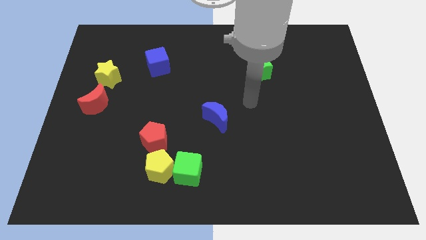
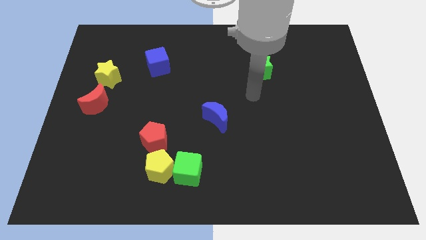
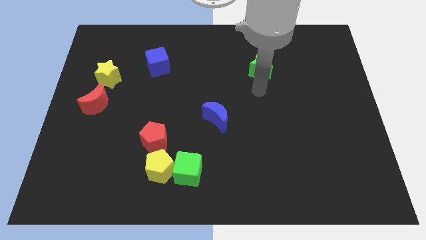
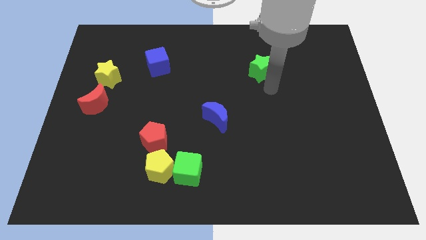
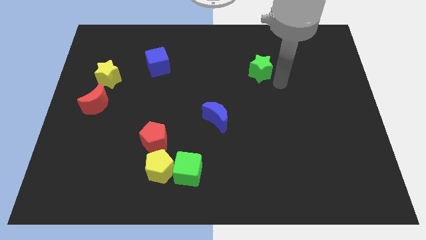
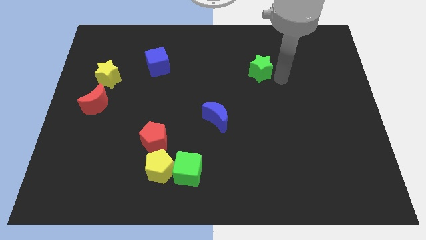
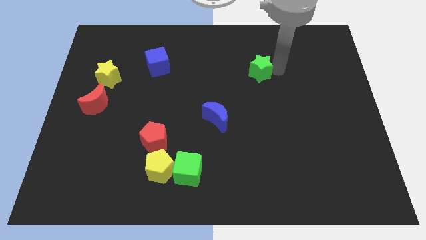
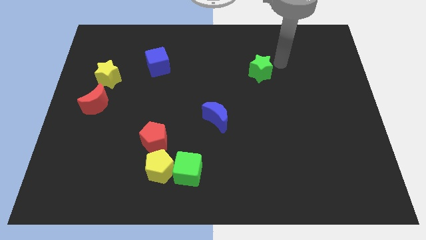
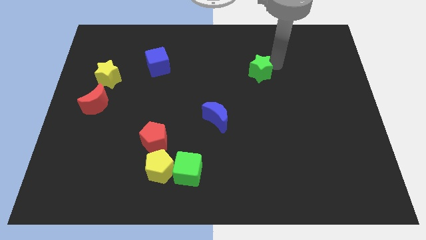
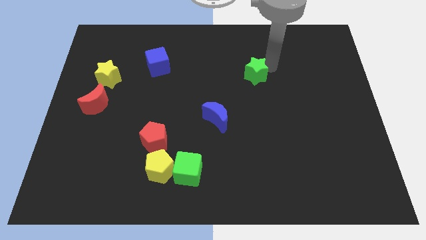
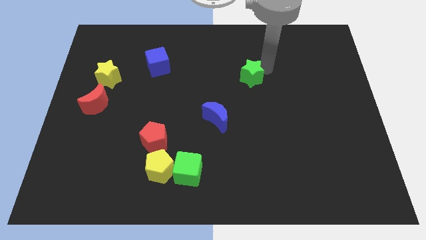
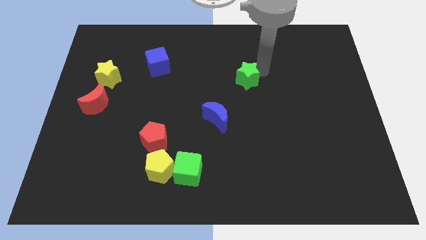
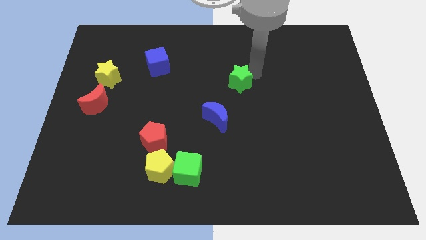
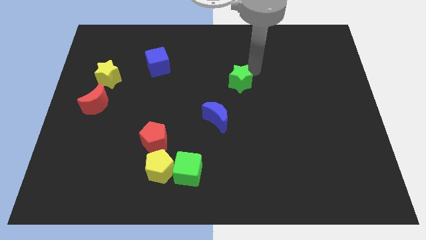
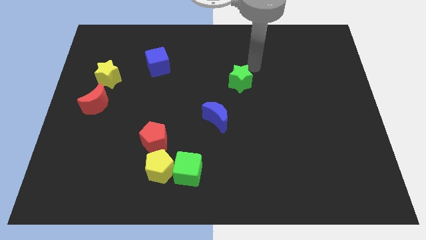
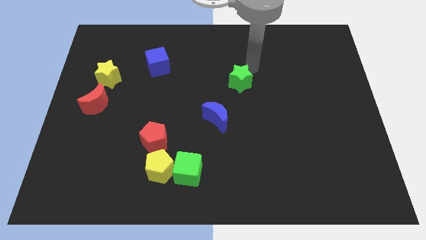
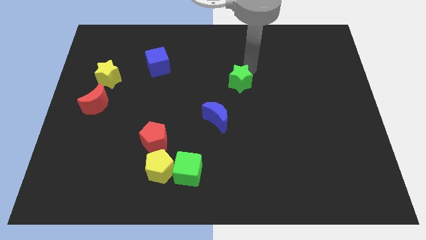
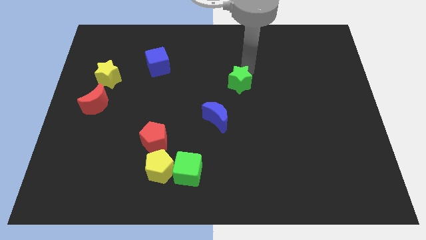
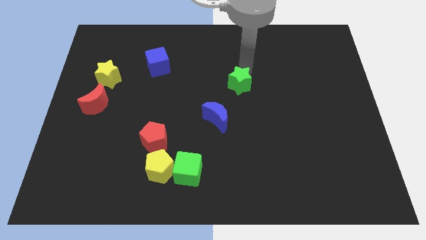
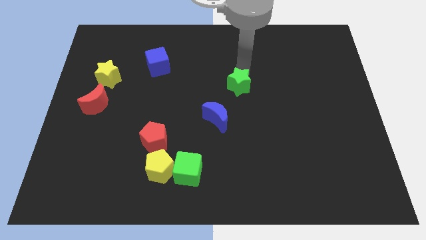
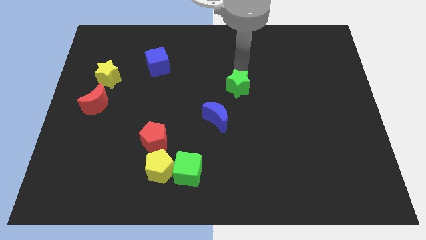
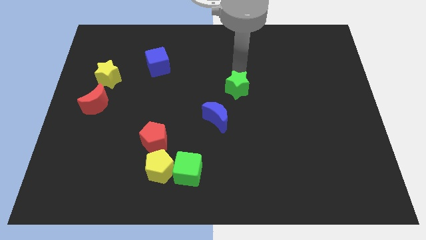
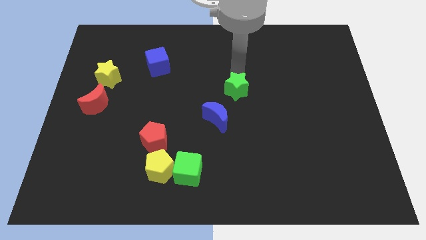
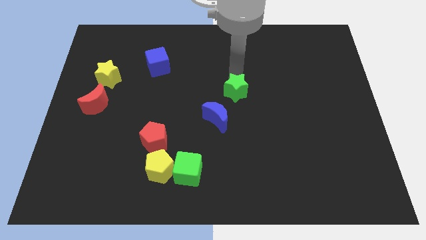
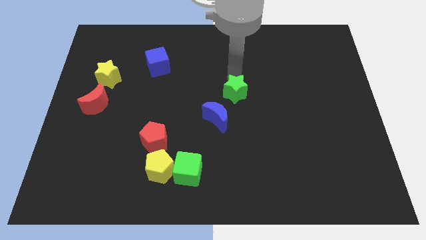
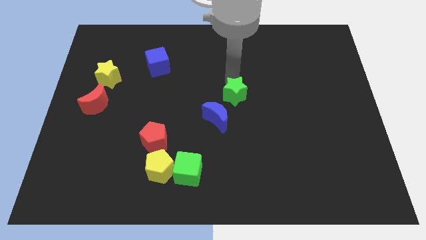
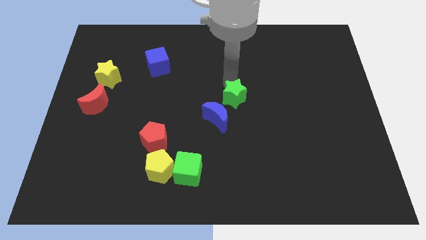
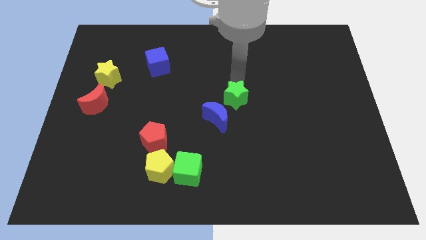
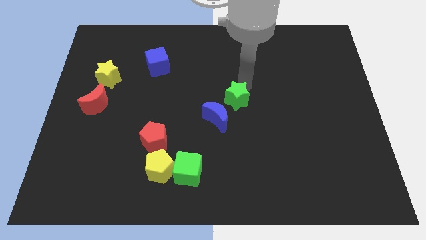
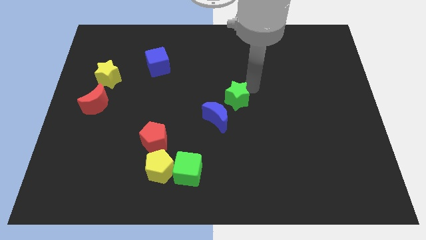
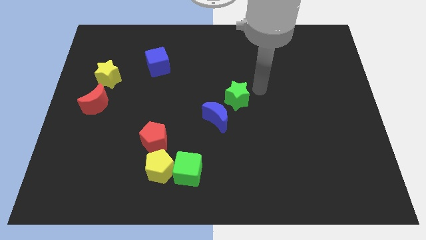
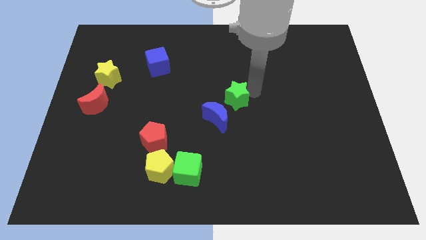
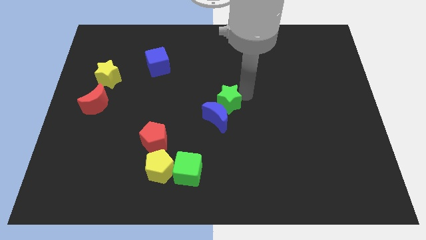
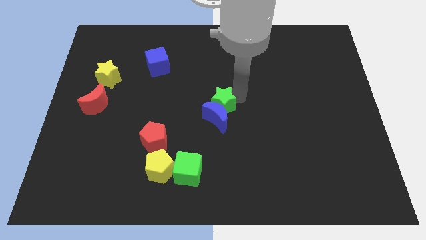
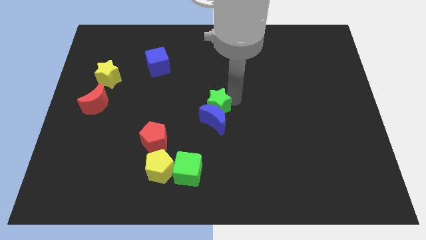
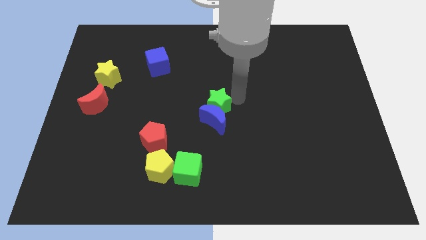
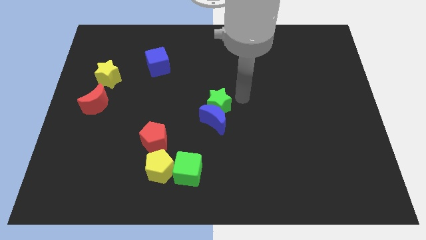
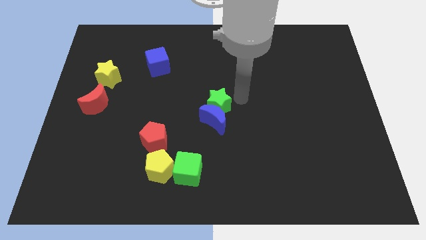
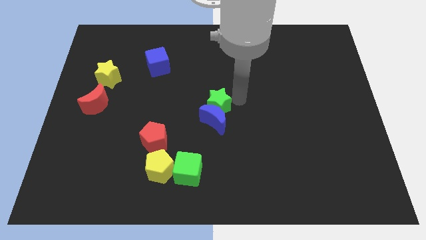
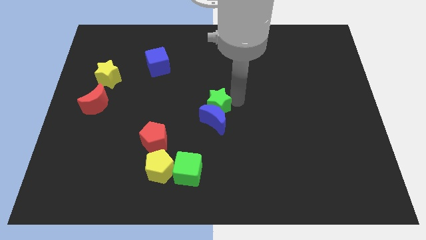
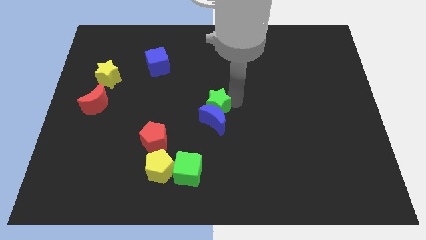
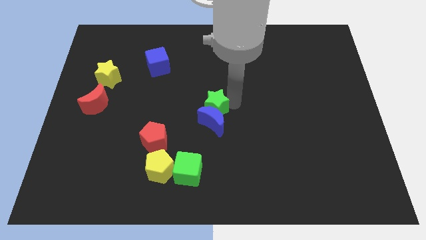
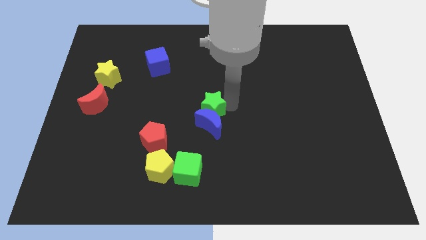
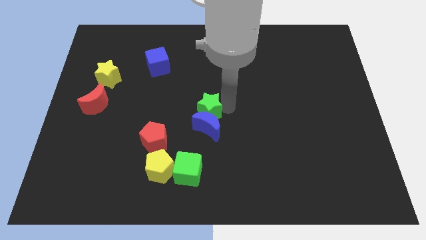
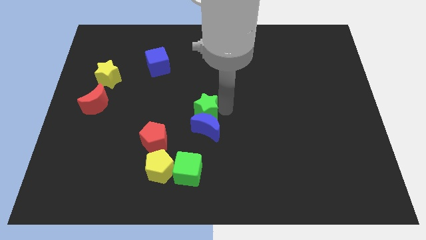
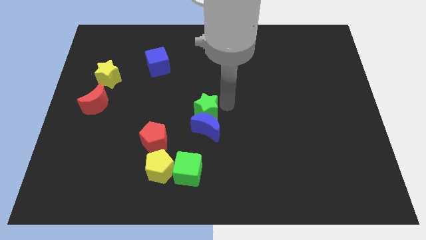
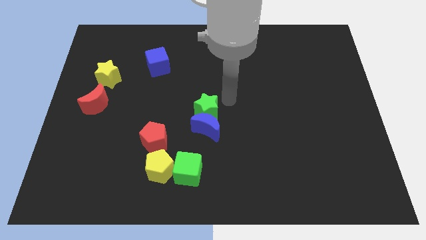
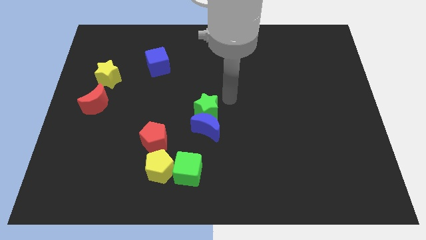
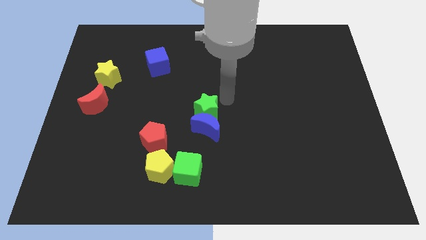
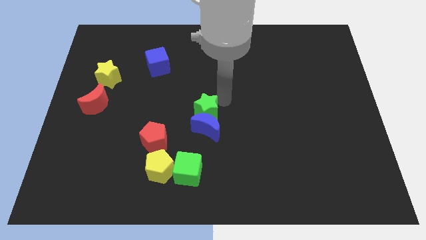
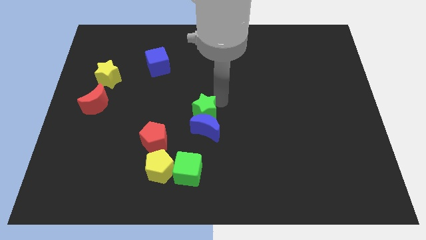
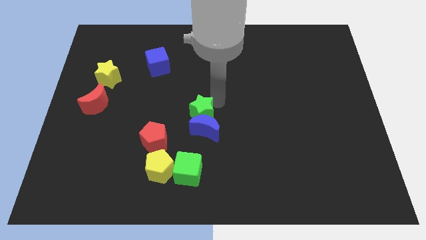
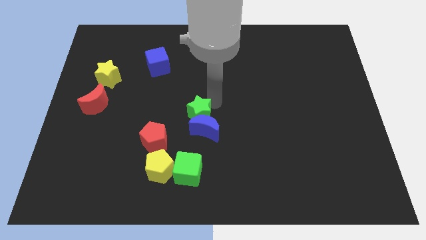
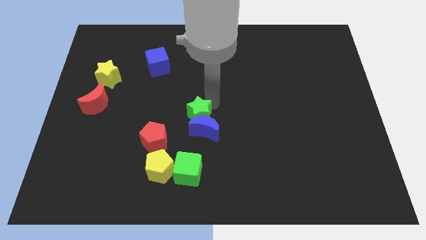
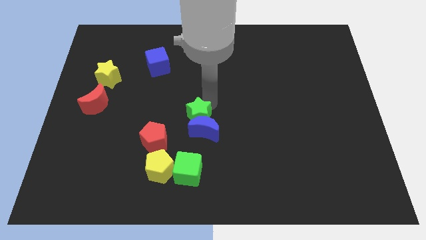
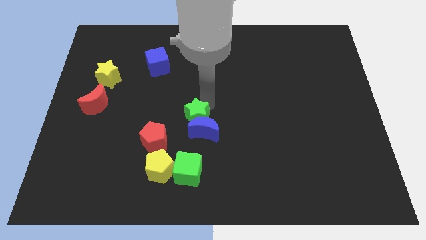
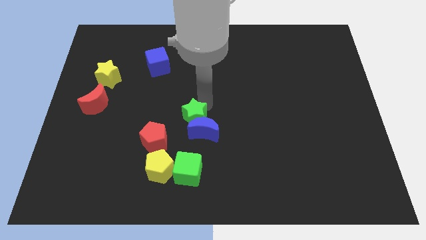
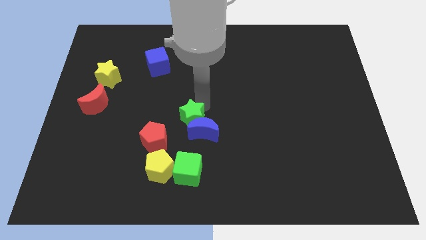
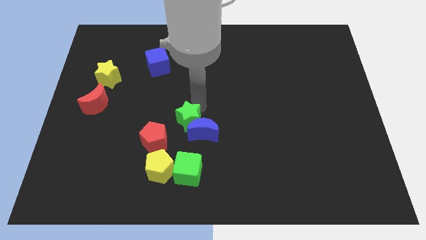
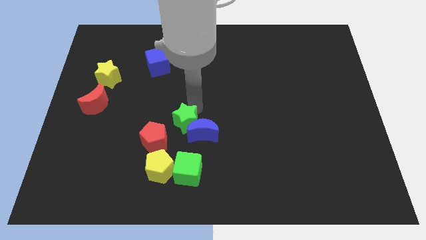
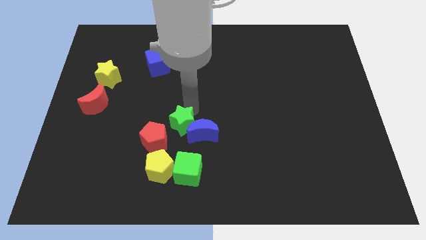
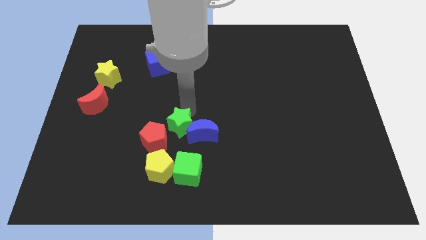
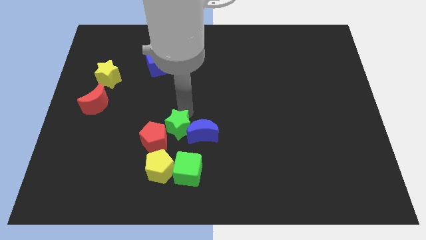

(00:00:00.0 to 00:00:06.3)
push the green star towards the red pentagon

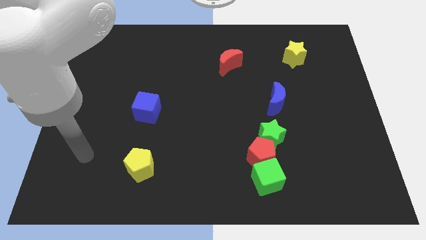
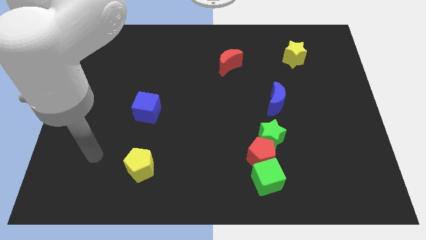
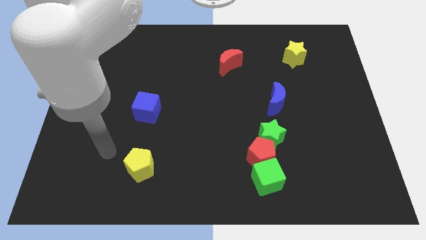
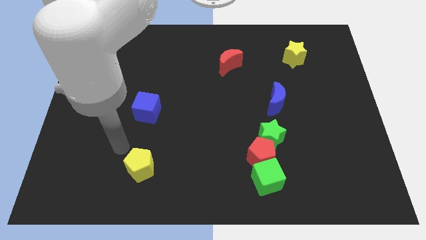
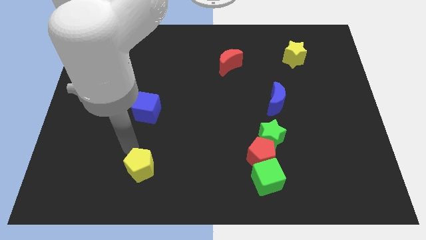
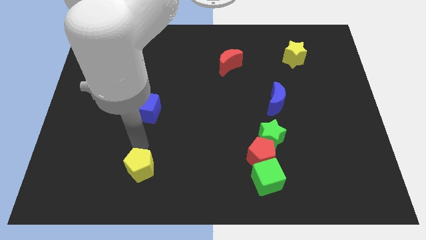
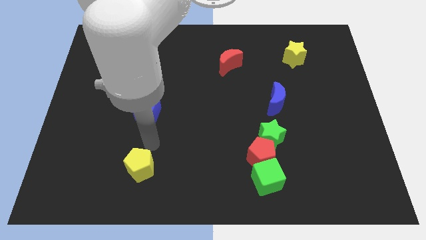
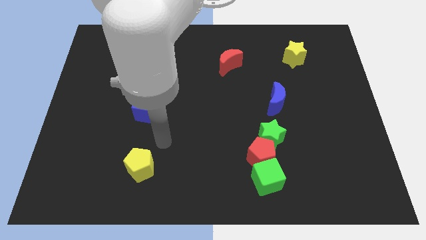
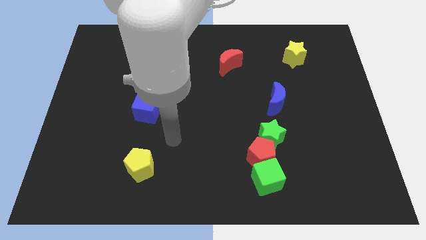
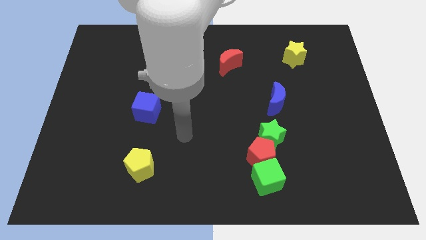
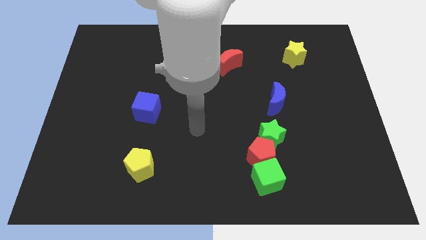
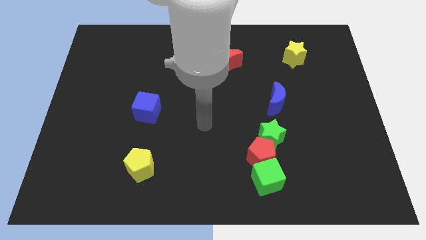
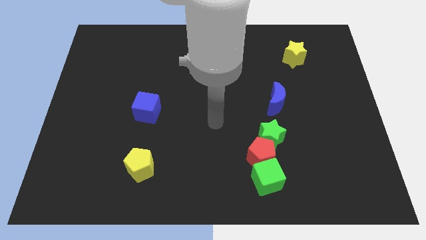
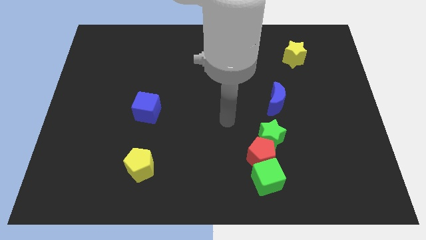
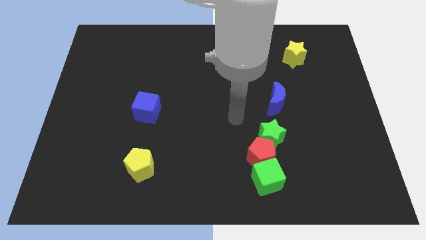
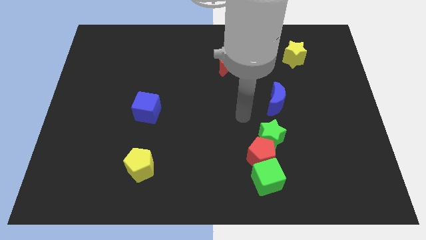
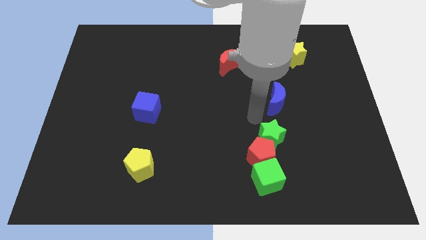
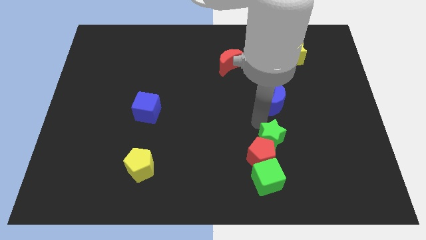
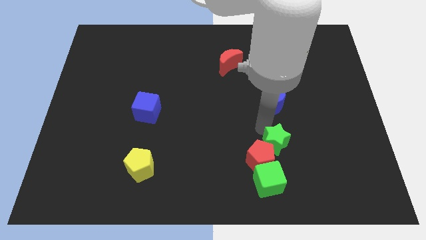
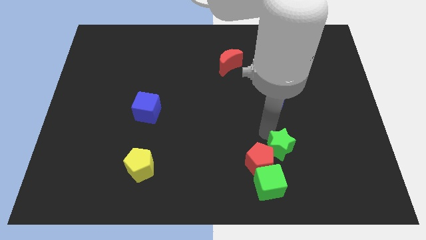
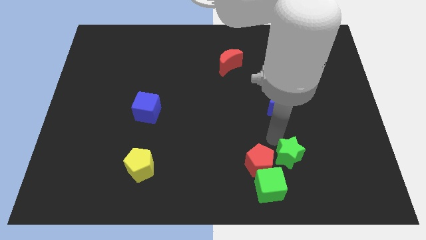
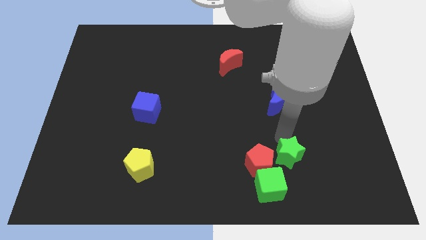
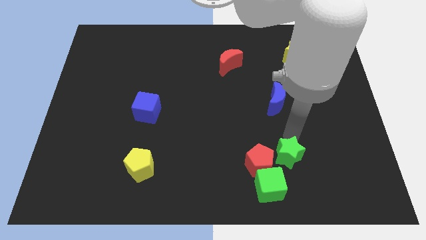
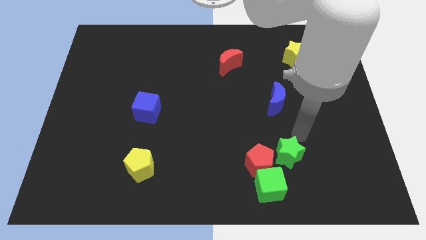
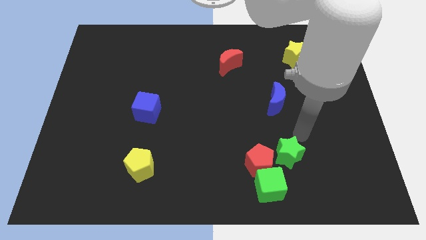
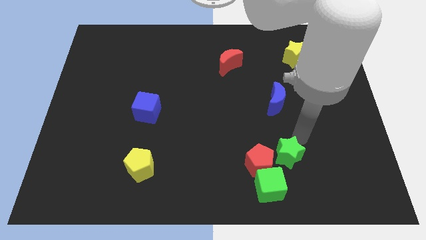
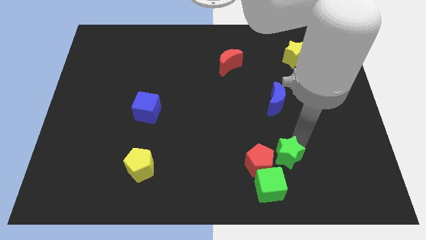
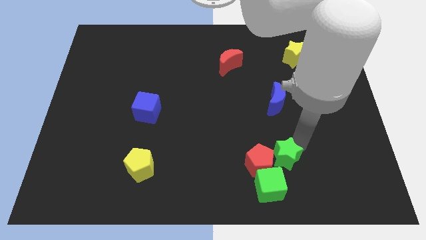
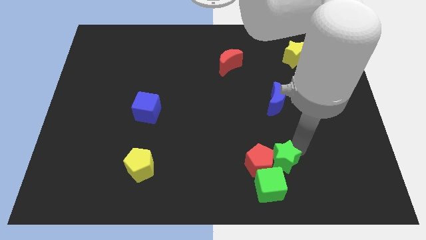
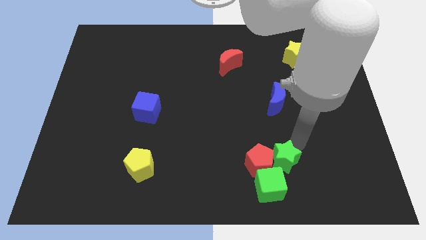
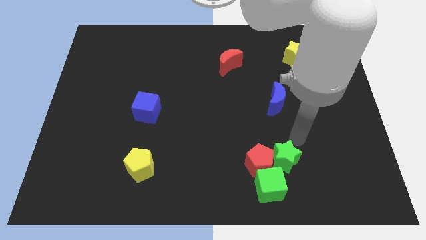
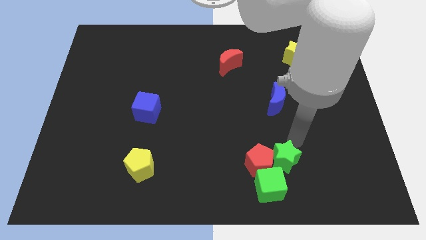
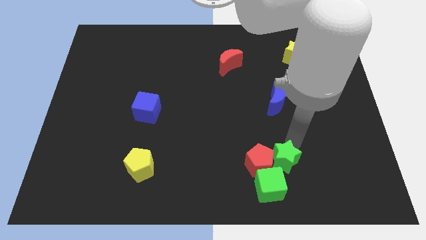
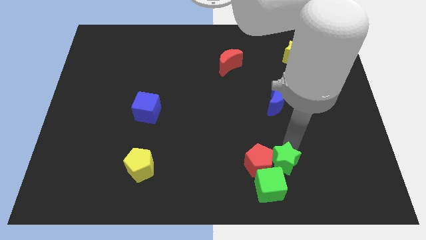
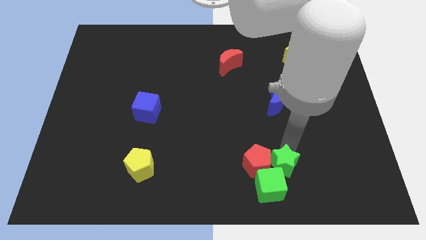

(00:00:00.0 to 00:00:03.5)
push the green star close to the green cube
